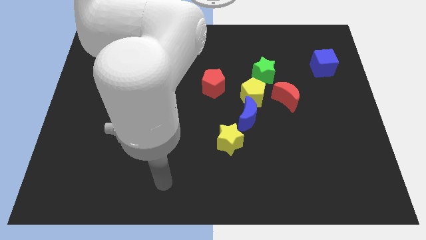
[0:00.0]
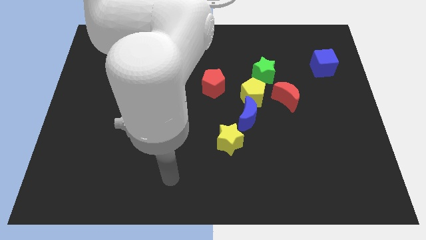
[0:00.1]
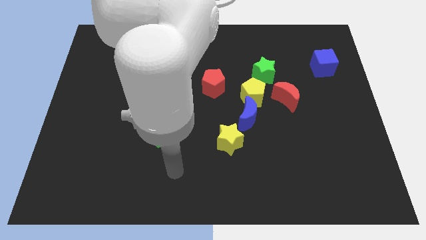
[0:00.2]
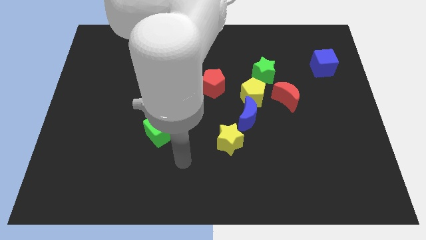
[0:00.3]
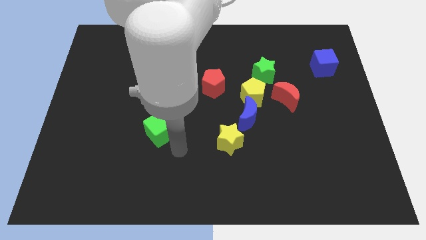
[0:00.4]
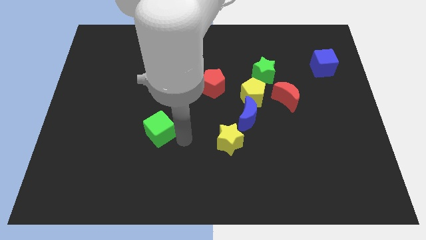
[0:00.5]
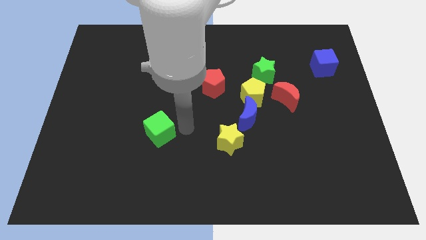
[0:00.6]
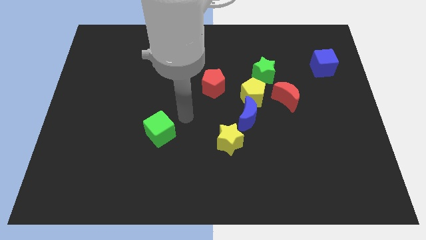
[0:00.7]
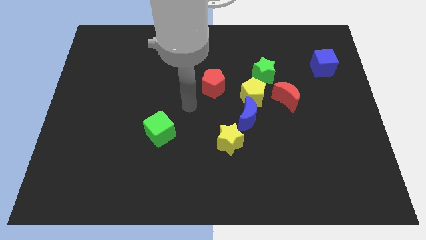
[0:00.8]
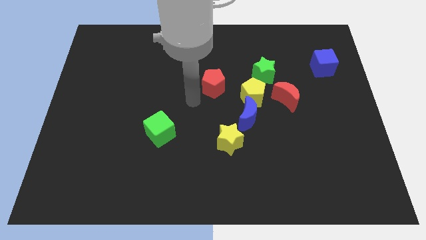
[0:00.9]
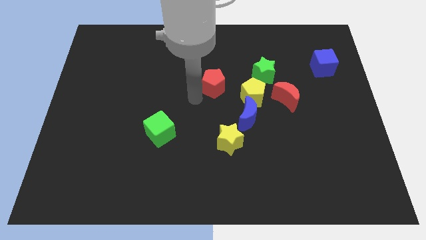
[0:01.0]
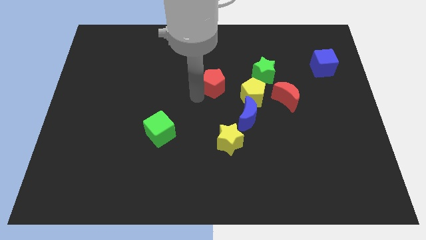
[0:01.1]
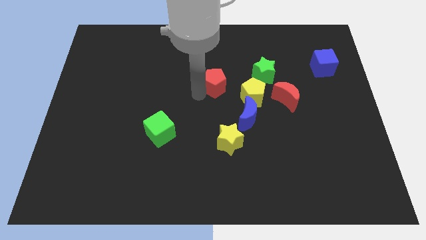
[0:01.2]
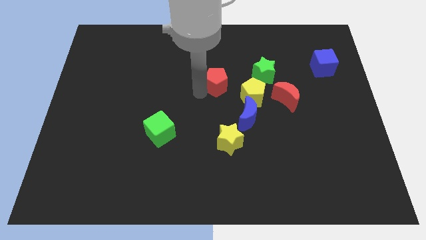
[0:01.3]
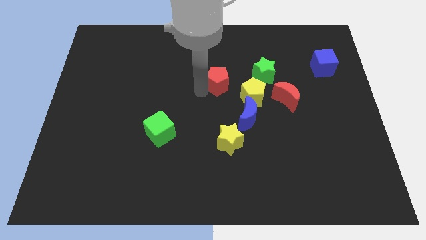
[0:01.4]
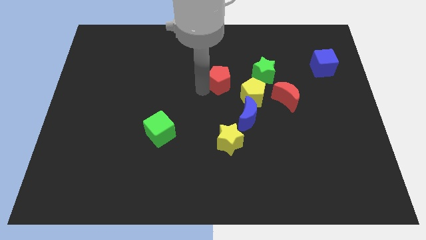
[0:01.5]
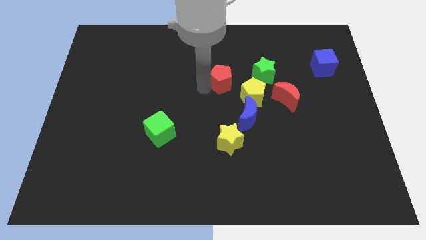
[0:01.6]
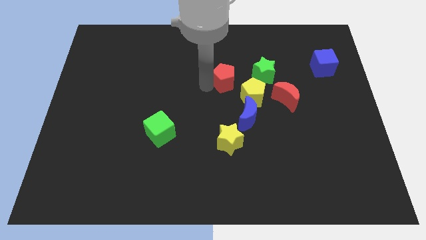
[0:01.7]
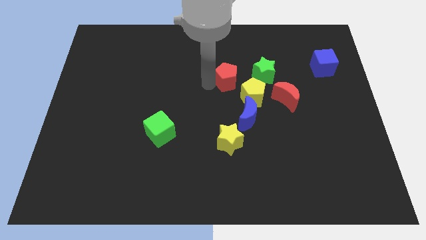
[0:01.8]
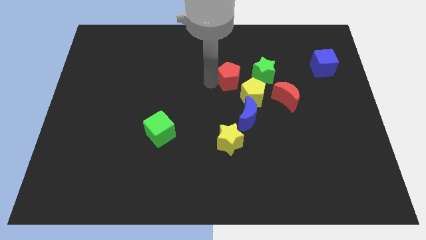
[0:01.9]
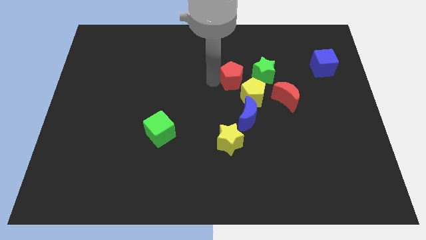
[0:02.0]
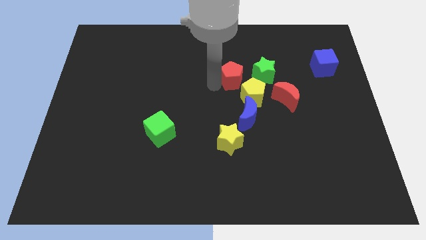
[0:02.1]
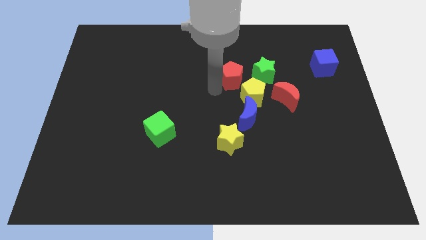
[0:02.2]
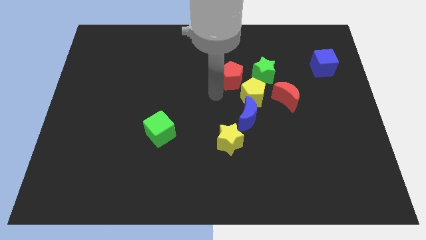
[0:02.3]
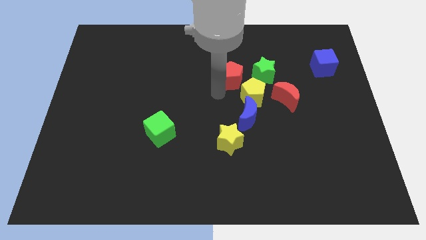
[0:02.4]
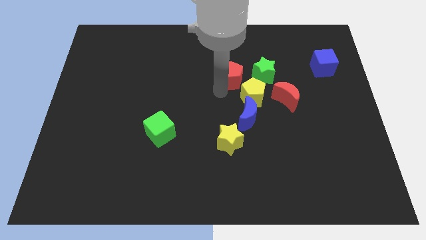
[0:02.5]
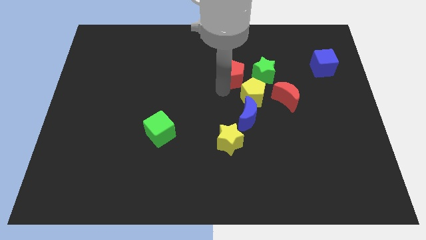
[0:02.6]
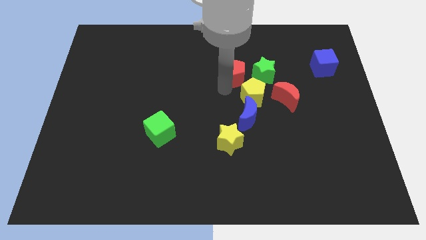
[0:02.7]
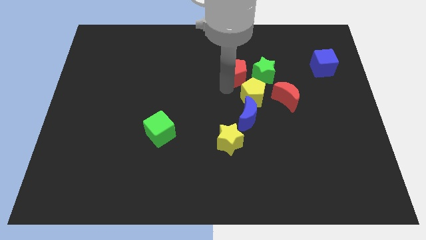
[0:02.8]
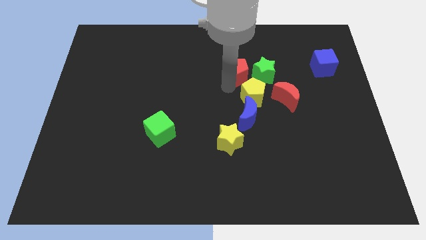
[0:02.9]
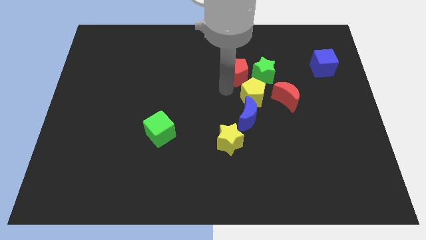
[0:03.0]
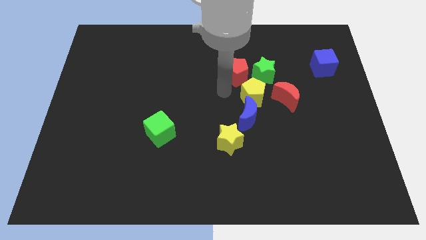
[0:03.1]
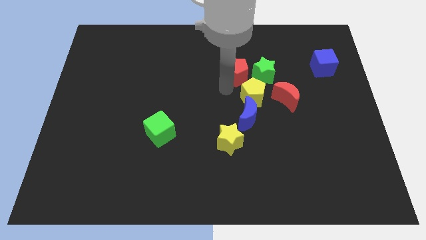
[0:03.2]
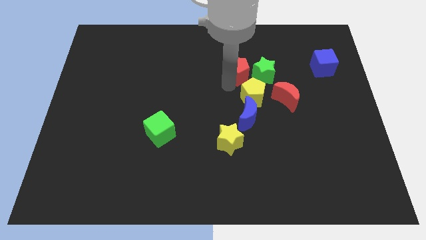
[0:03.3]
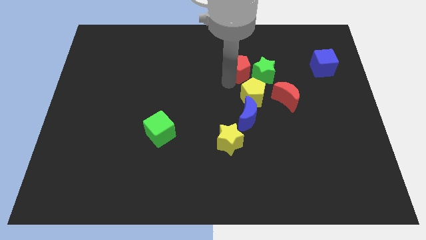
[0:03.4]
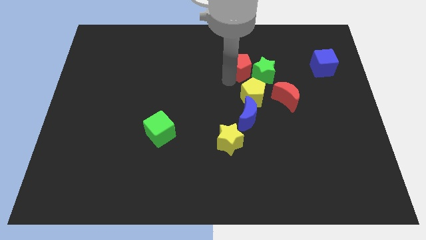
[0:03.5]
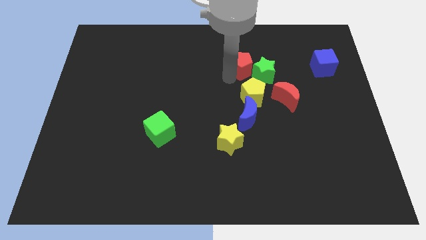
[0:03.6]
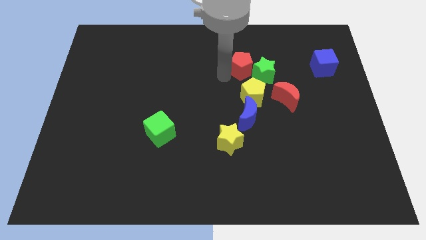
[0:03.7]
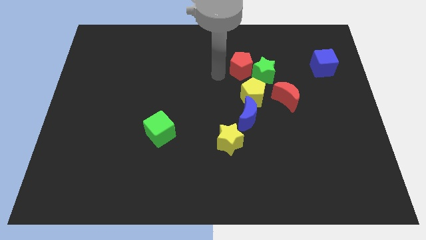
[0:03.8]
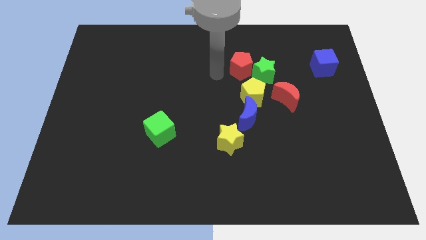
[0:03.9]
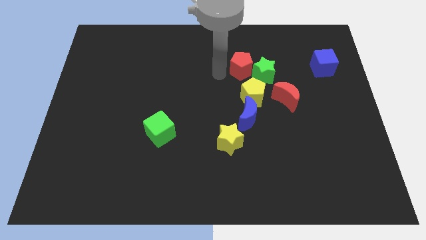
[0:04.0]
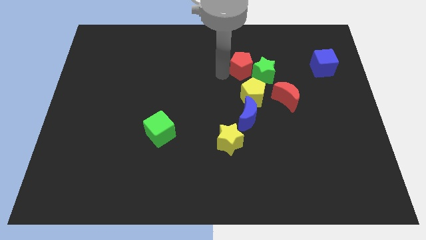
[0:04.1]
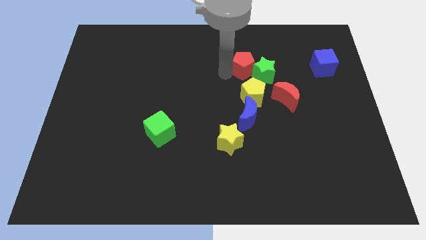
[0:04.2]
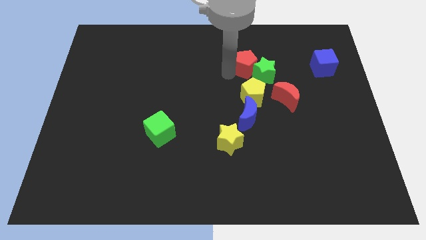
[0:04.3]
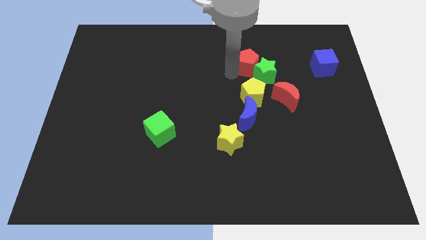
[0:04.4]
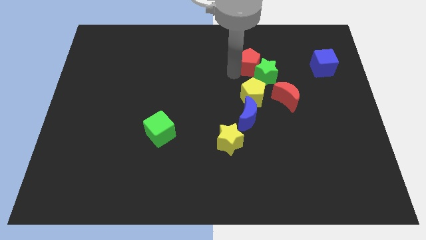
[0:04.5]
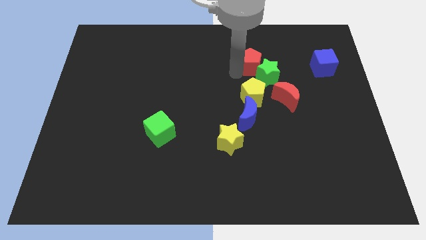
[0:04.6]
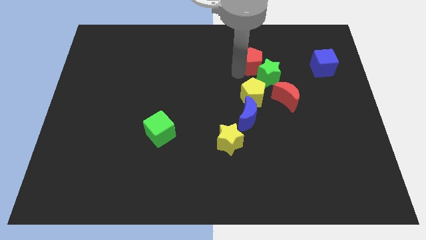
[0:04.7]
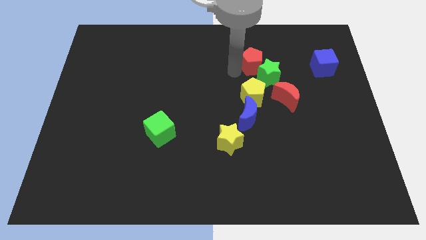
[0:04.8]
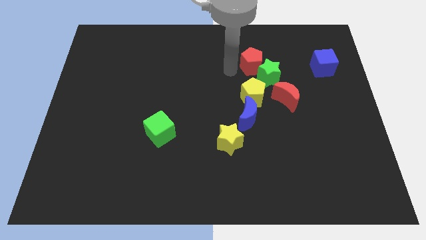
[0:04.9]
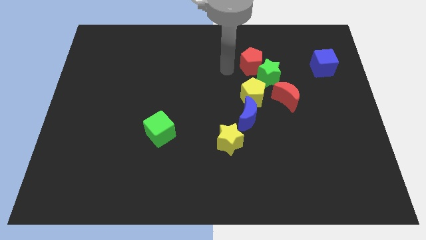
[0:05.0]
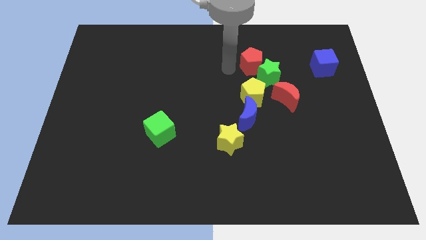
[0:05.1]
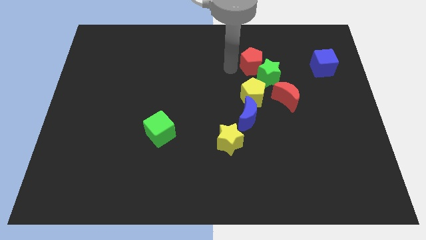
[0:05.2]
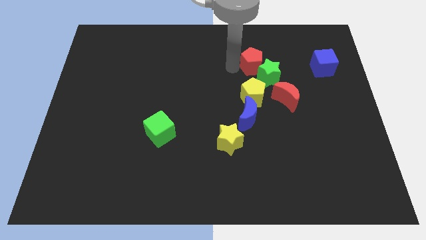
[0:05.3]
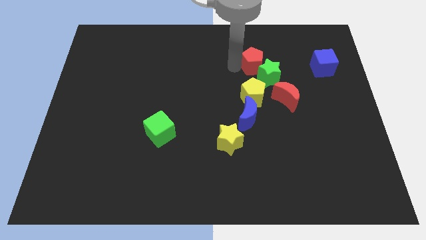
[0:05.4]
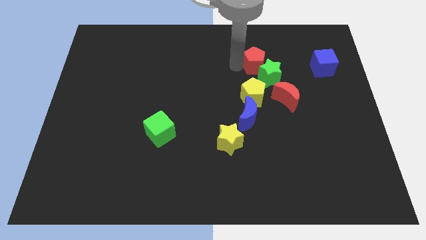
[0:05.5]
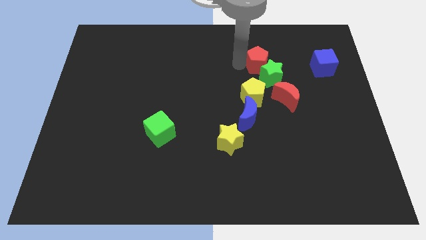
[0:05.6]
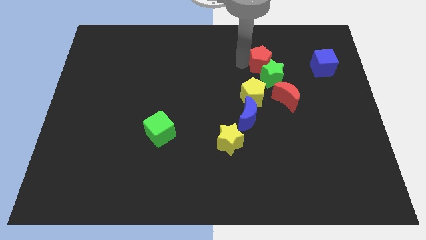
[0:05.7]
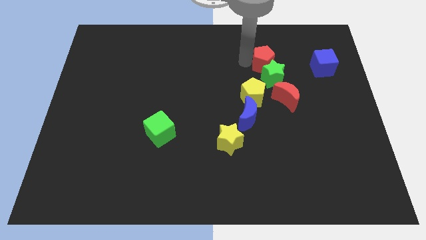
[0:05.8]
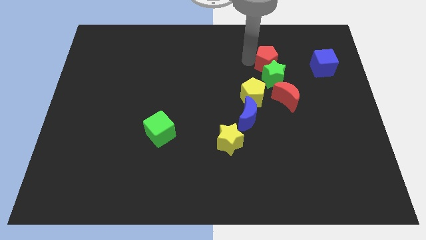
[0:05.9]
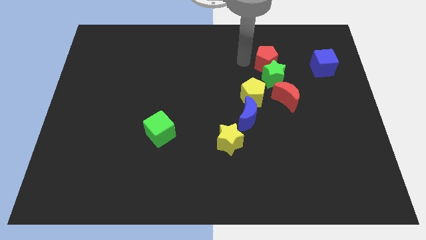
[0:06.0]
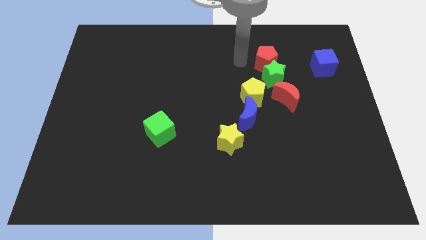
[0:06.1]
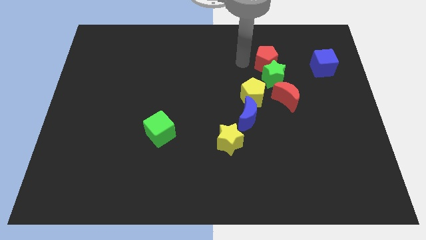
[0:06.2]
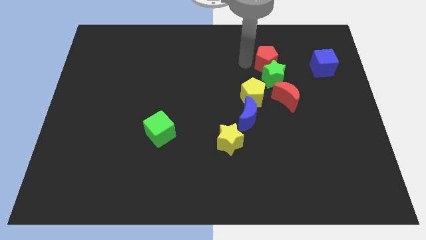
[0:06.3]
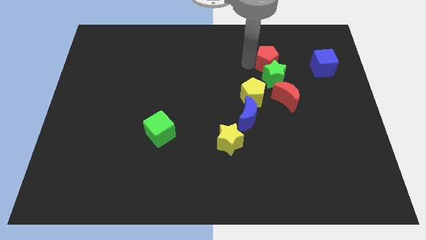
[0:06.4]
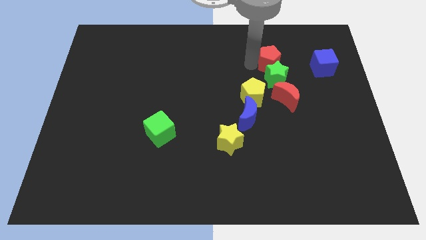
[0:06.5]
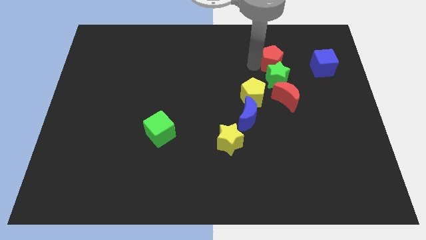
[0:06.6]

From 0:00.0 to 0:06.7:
slide the red pentagon diagonally up and to the right of the green star

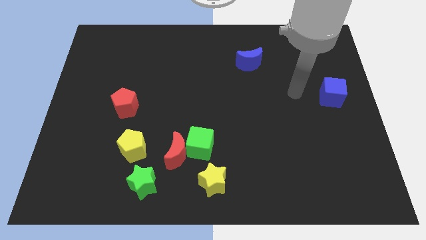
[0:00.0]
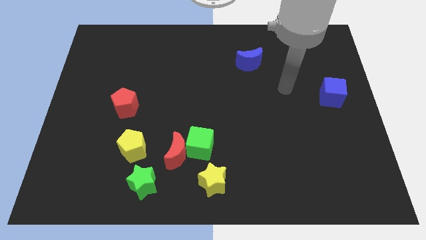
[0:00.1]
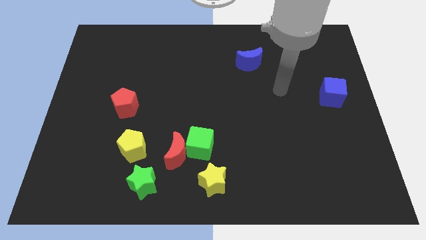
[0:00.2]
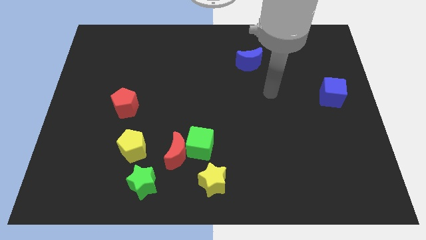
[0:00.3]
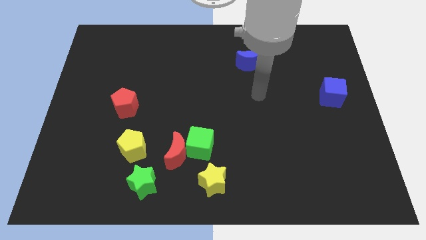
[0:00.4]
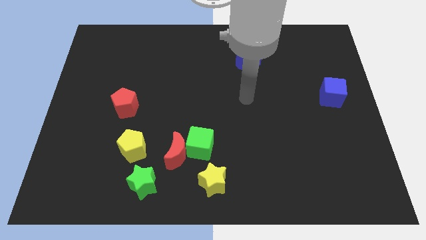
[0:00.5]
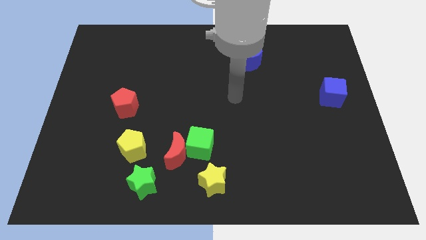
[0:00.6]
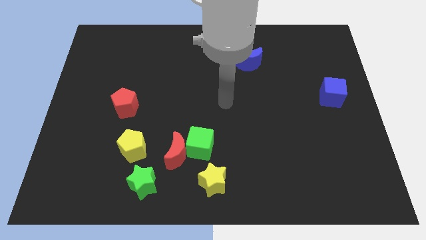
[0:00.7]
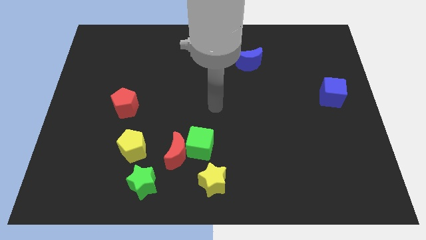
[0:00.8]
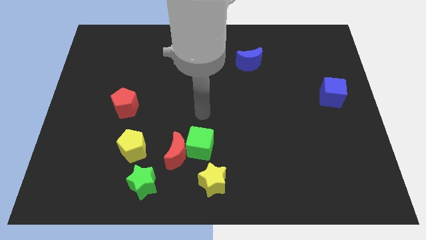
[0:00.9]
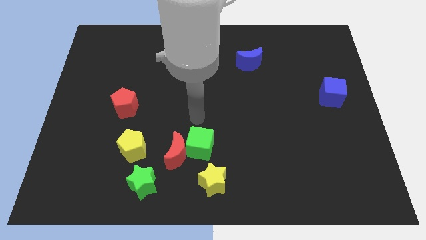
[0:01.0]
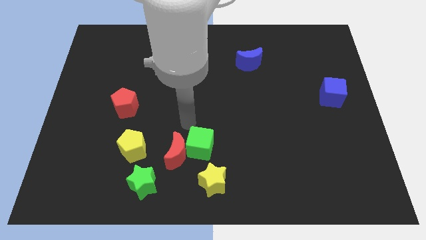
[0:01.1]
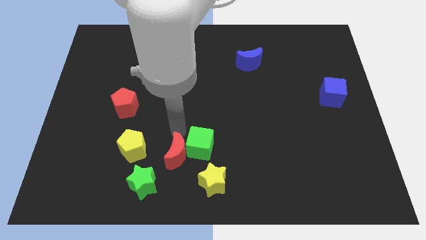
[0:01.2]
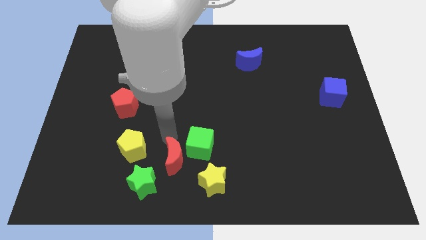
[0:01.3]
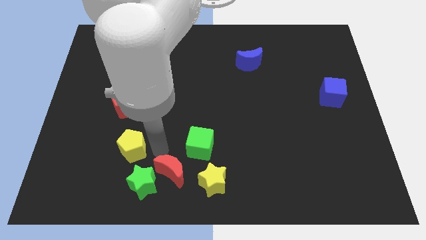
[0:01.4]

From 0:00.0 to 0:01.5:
push the green star to the left side of the red moon
